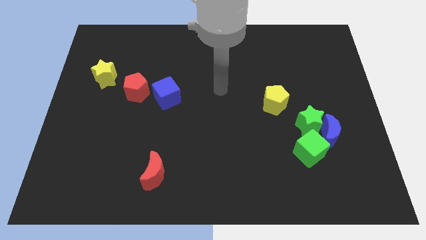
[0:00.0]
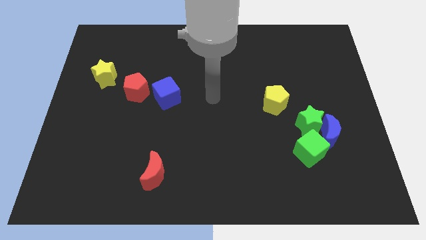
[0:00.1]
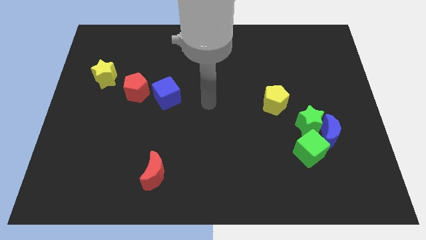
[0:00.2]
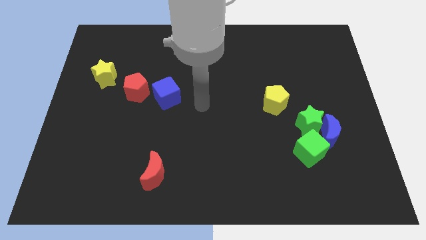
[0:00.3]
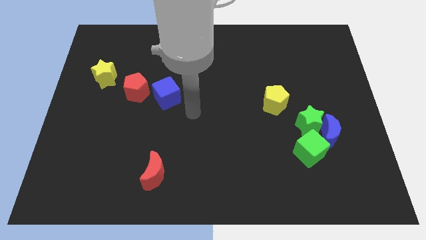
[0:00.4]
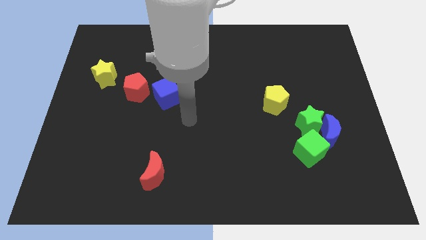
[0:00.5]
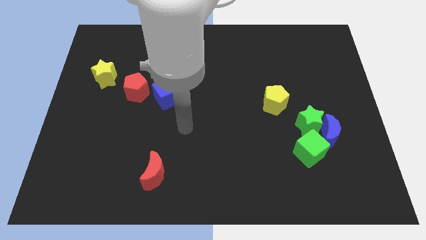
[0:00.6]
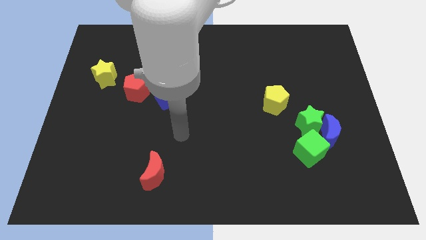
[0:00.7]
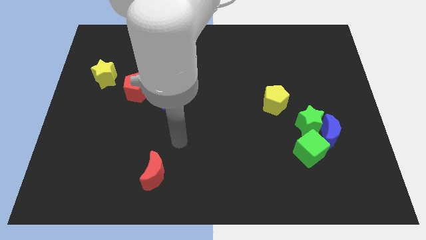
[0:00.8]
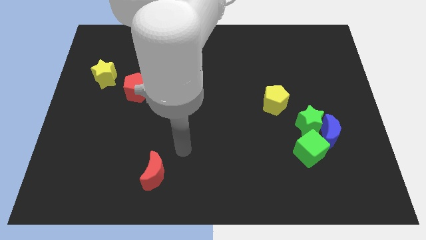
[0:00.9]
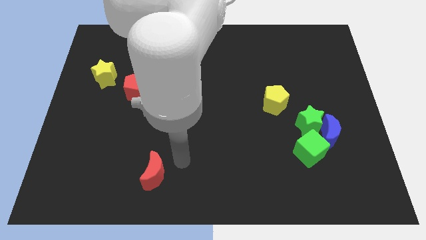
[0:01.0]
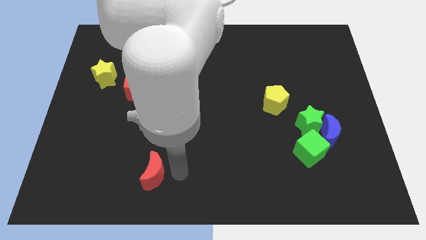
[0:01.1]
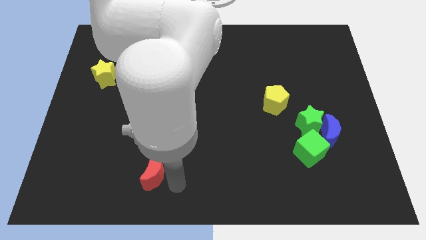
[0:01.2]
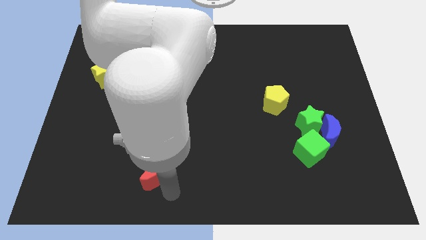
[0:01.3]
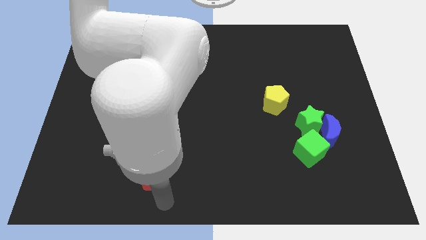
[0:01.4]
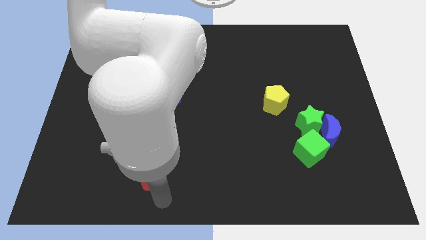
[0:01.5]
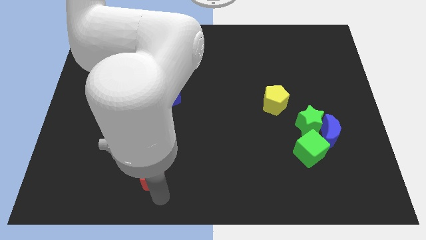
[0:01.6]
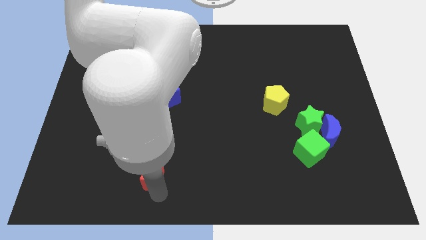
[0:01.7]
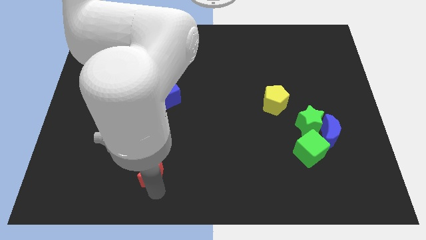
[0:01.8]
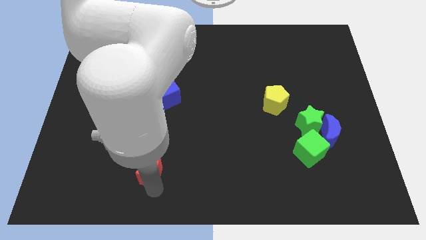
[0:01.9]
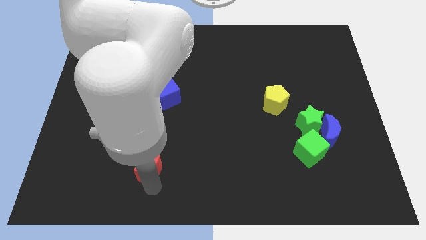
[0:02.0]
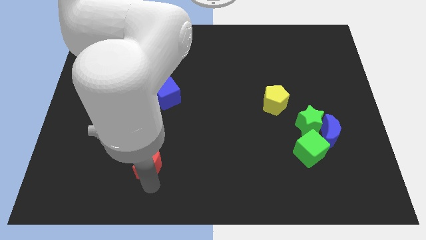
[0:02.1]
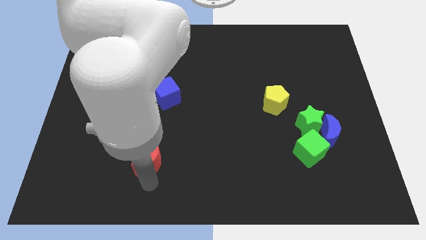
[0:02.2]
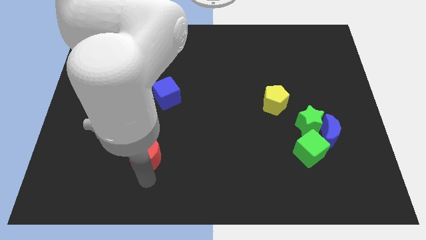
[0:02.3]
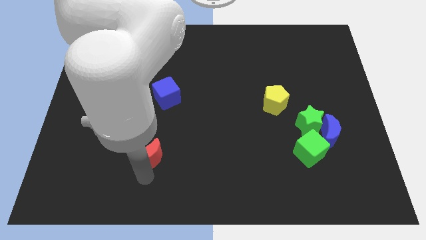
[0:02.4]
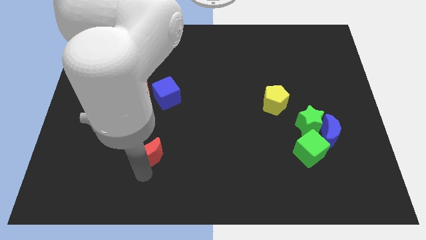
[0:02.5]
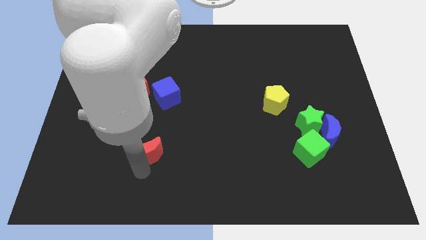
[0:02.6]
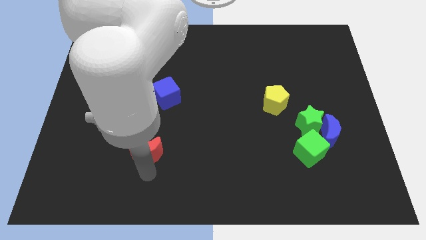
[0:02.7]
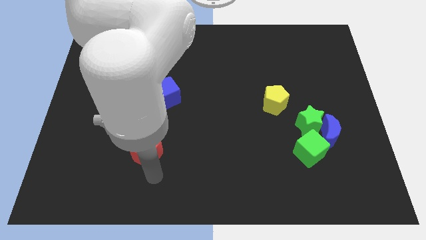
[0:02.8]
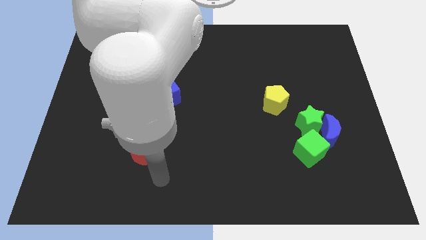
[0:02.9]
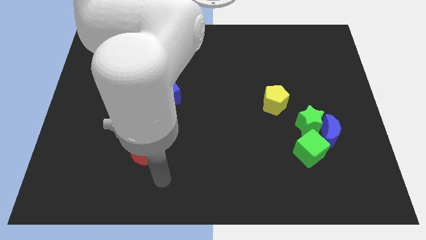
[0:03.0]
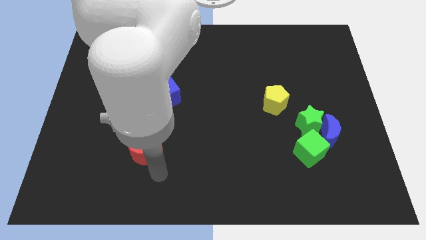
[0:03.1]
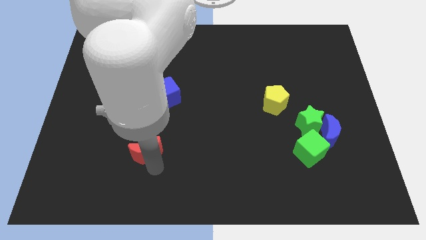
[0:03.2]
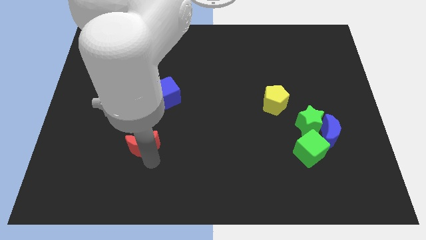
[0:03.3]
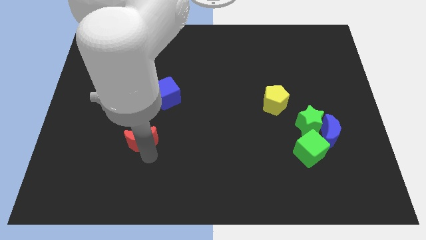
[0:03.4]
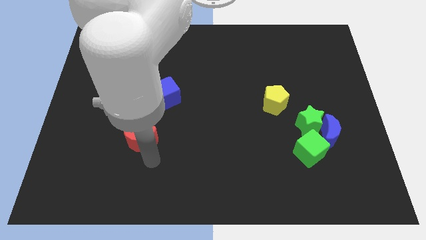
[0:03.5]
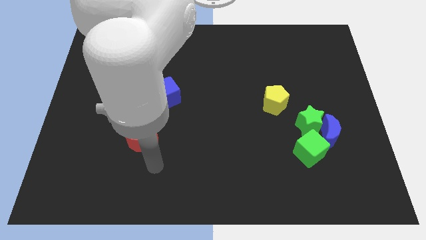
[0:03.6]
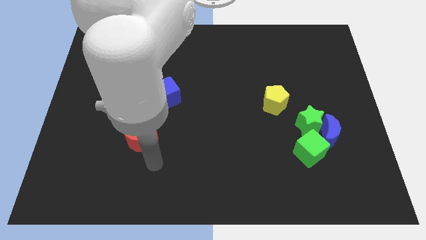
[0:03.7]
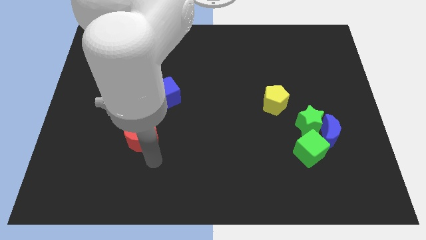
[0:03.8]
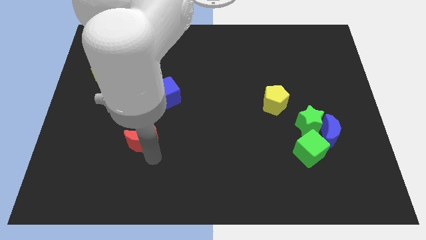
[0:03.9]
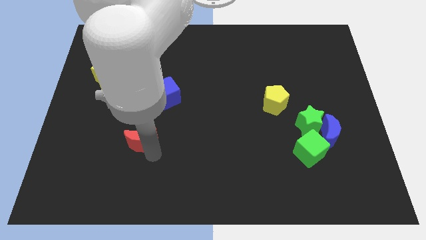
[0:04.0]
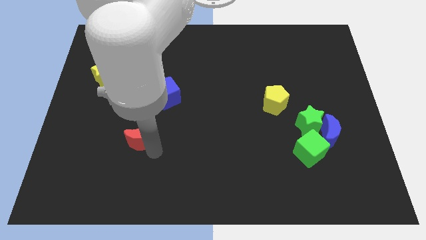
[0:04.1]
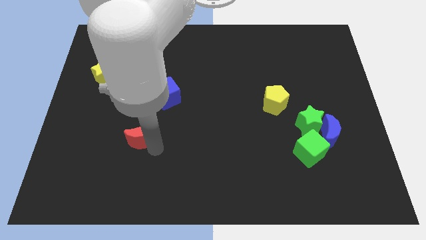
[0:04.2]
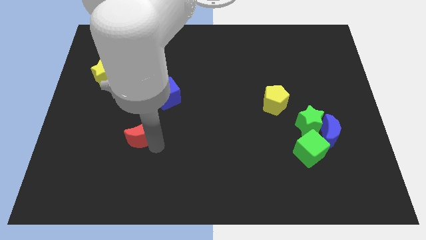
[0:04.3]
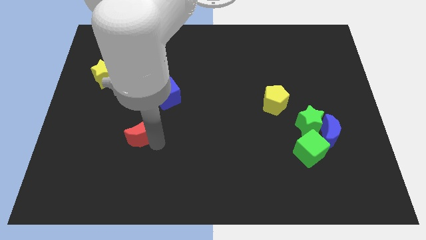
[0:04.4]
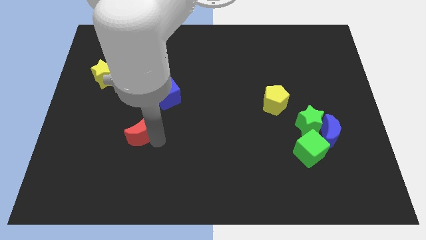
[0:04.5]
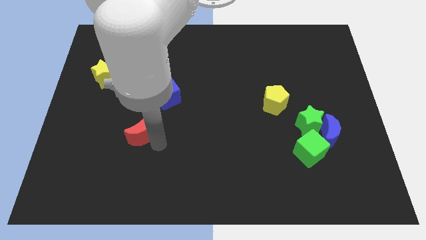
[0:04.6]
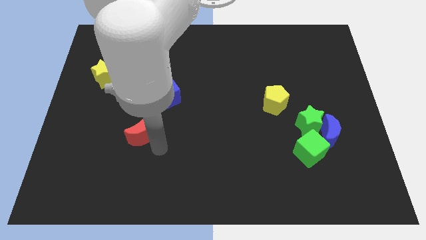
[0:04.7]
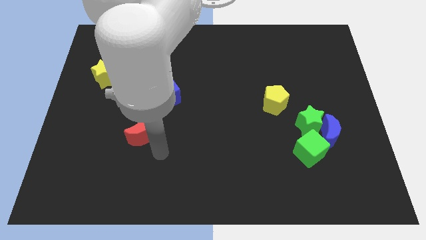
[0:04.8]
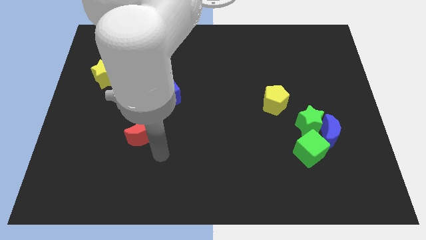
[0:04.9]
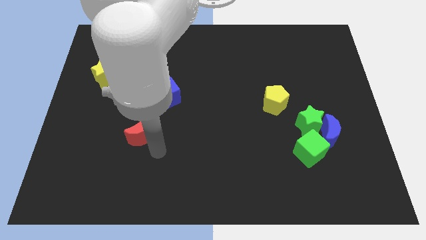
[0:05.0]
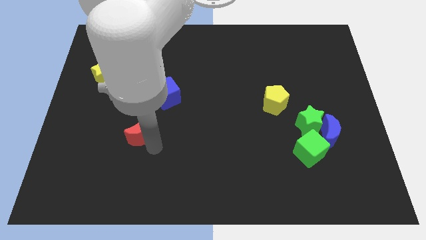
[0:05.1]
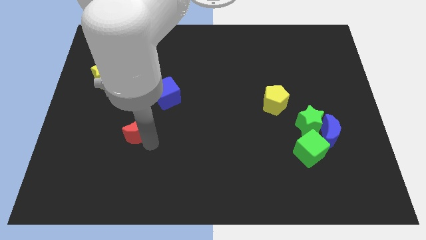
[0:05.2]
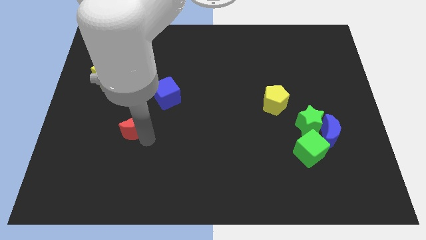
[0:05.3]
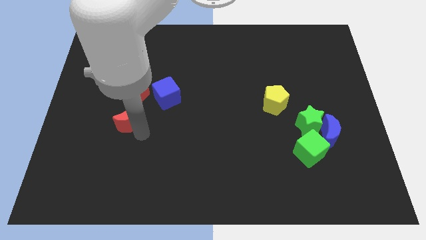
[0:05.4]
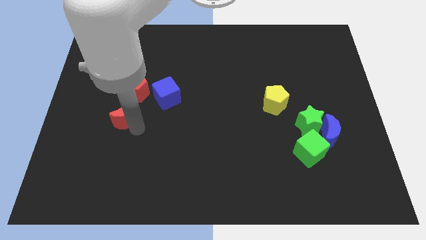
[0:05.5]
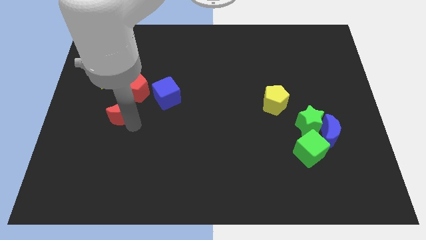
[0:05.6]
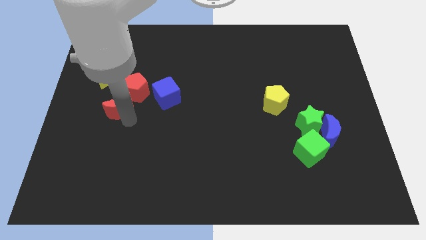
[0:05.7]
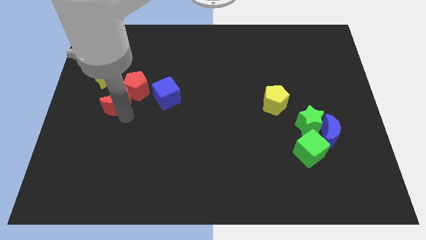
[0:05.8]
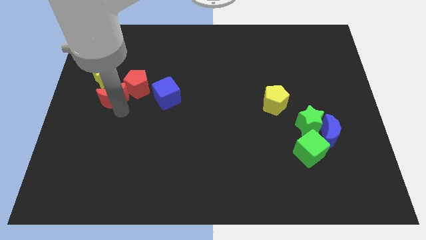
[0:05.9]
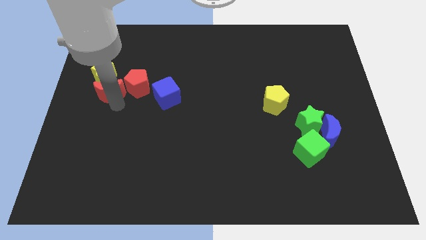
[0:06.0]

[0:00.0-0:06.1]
put the red moon close to the yellow star
